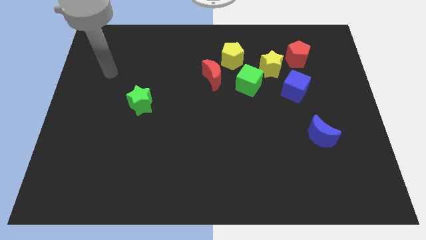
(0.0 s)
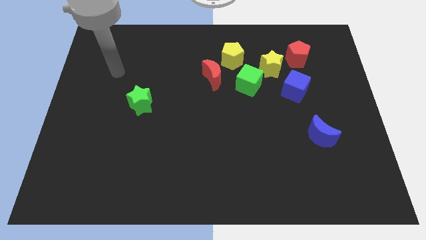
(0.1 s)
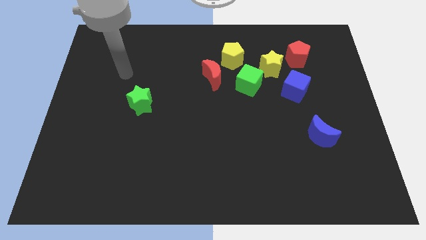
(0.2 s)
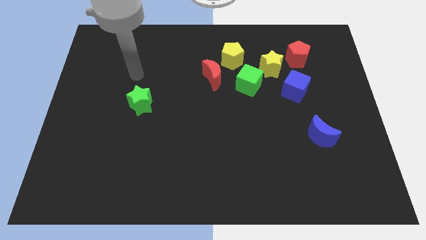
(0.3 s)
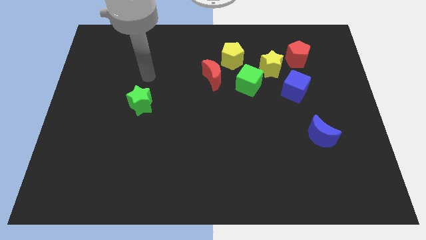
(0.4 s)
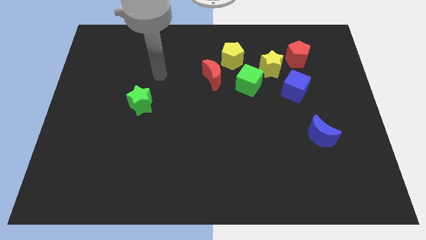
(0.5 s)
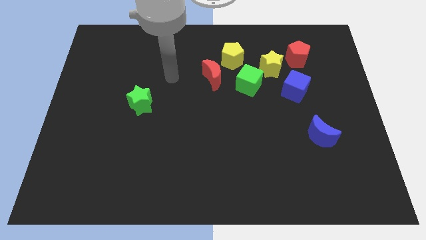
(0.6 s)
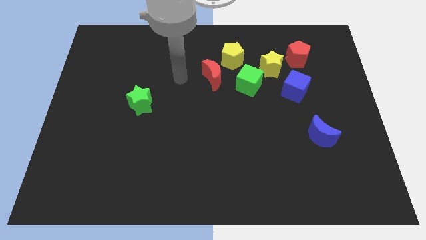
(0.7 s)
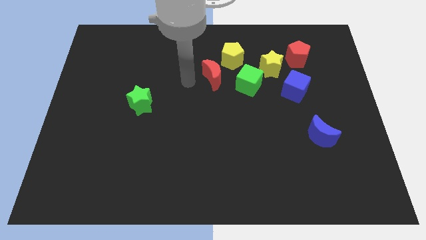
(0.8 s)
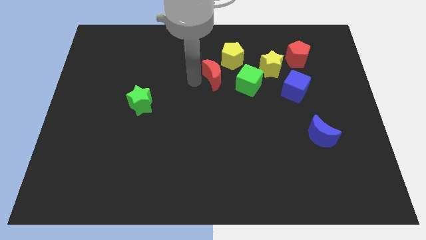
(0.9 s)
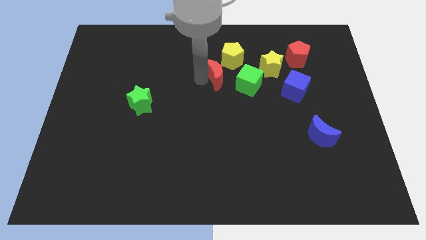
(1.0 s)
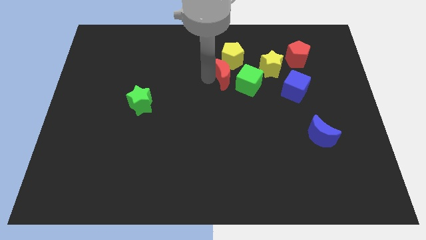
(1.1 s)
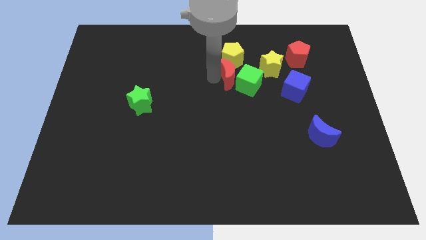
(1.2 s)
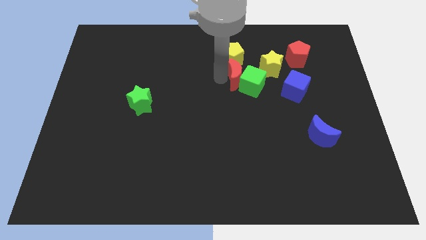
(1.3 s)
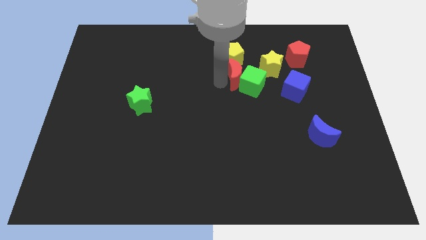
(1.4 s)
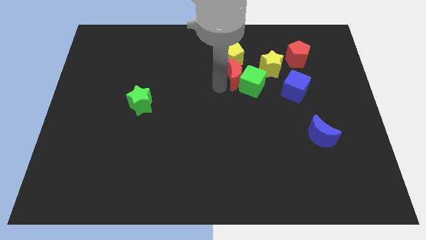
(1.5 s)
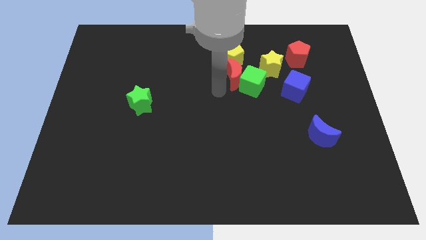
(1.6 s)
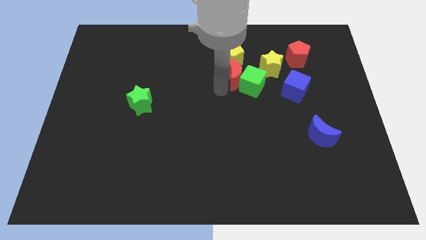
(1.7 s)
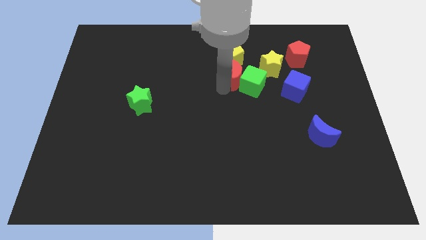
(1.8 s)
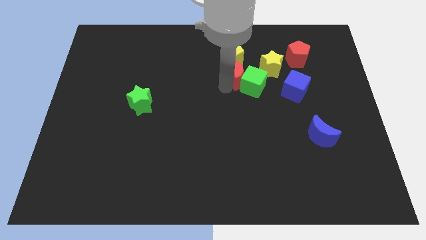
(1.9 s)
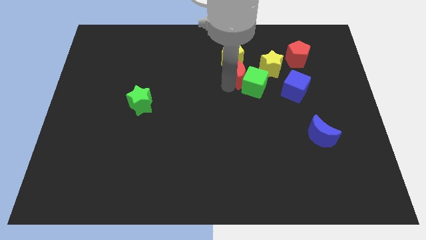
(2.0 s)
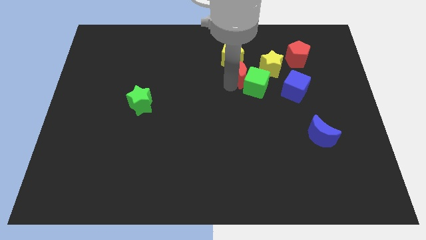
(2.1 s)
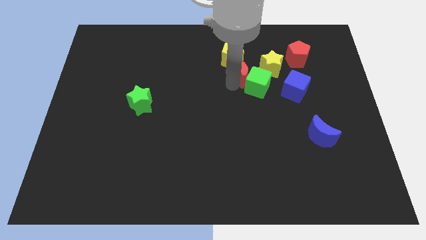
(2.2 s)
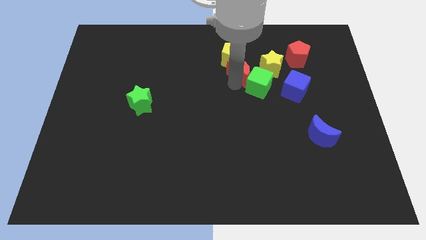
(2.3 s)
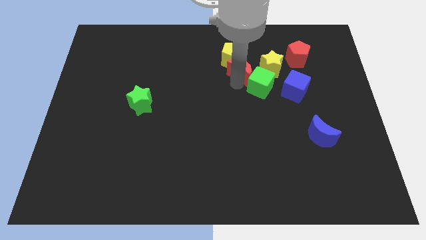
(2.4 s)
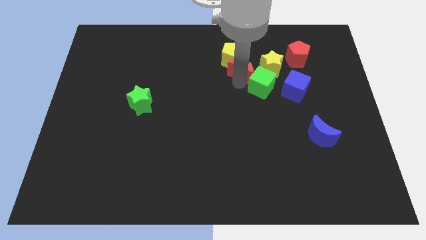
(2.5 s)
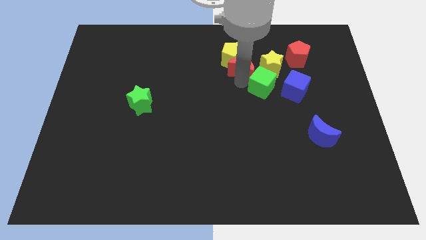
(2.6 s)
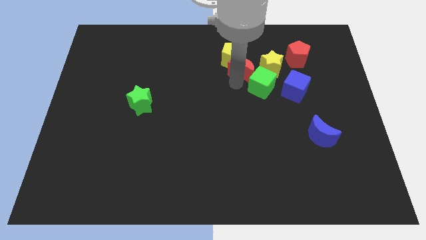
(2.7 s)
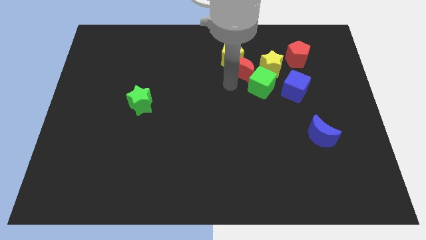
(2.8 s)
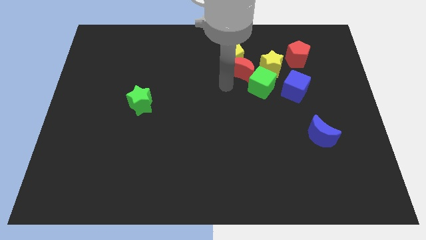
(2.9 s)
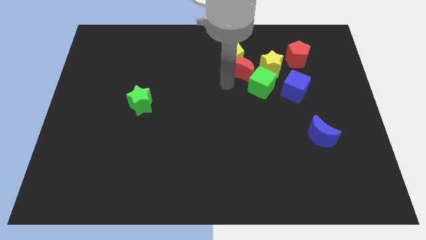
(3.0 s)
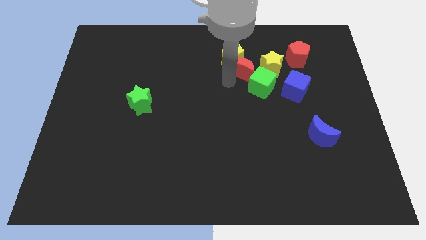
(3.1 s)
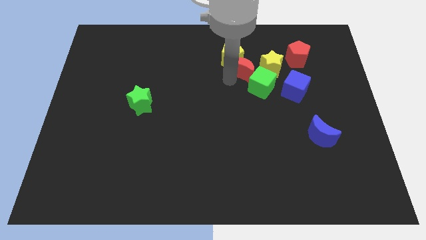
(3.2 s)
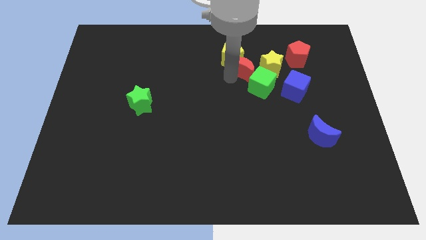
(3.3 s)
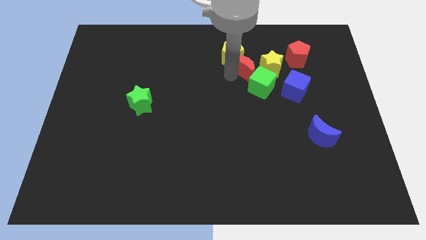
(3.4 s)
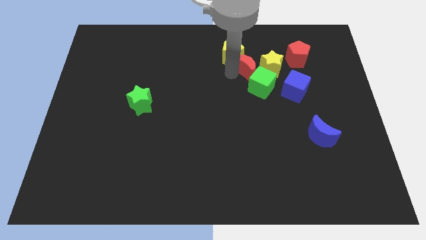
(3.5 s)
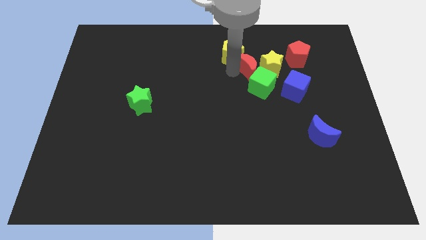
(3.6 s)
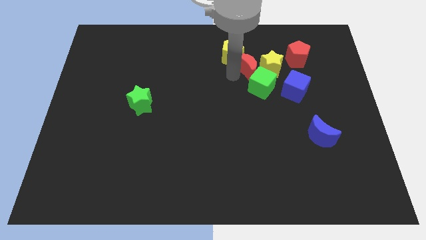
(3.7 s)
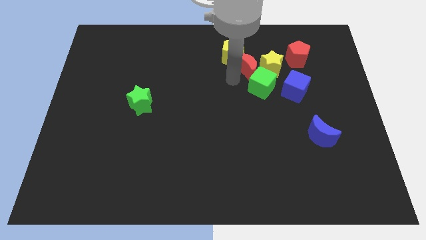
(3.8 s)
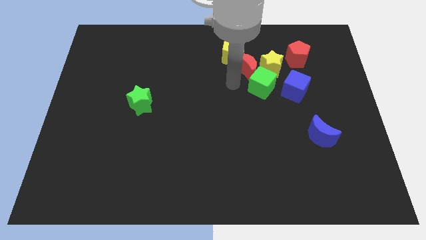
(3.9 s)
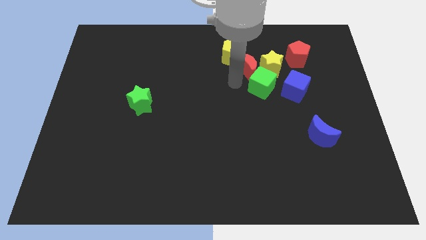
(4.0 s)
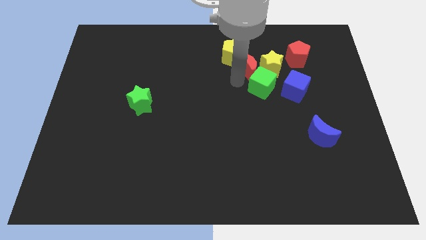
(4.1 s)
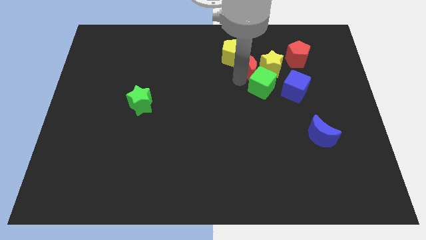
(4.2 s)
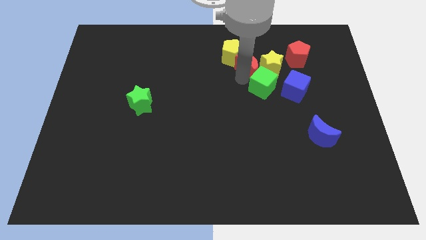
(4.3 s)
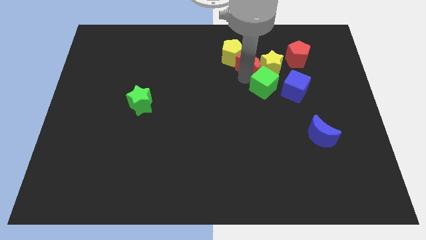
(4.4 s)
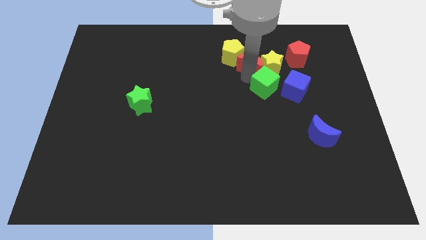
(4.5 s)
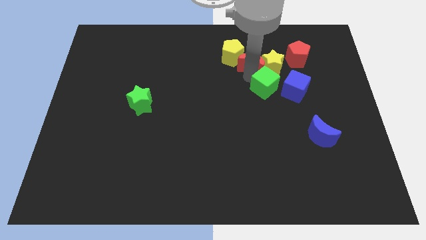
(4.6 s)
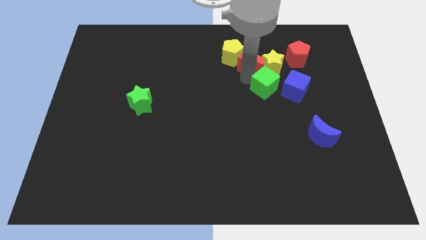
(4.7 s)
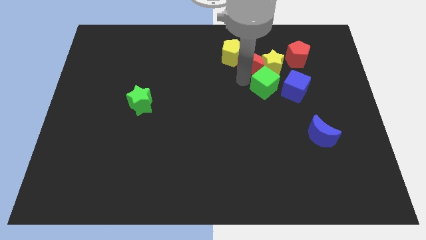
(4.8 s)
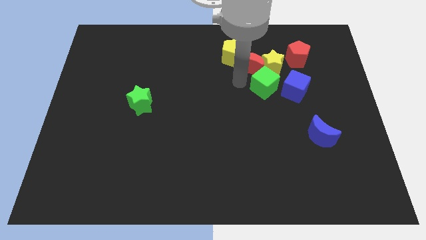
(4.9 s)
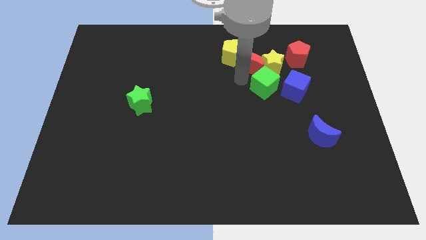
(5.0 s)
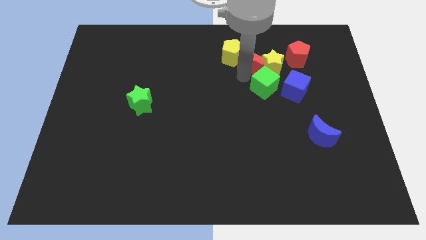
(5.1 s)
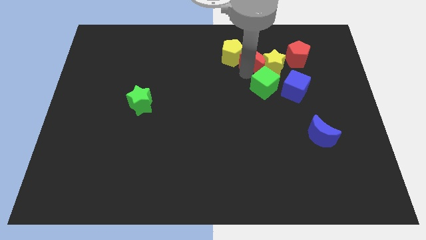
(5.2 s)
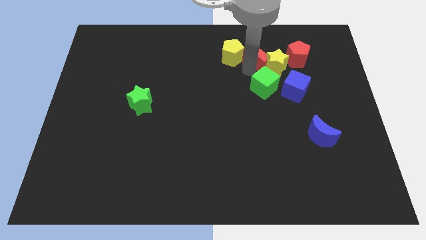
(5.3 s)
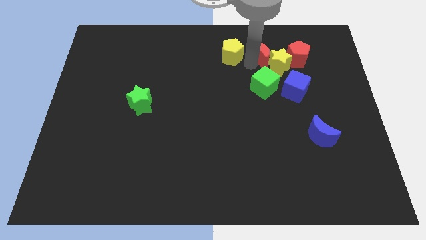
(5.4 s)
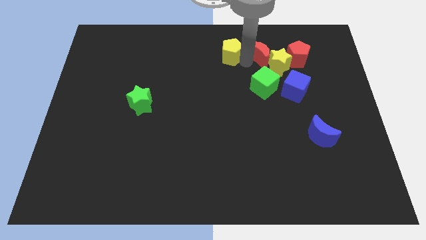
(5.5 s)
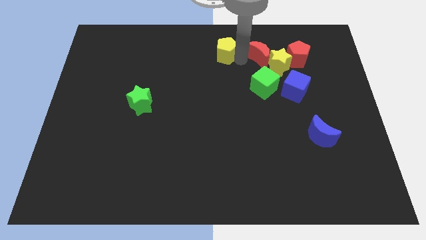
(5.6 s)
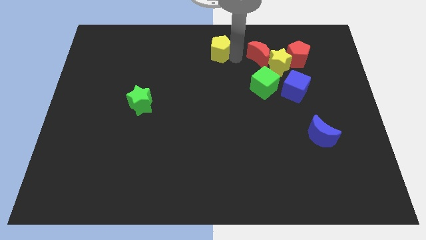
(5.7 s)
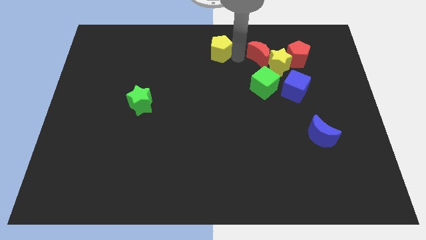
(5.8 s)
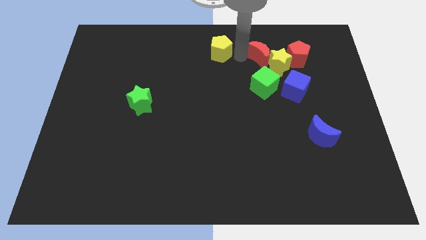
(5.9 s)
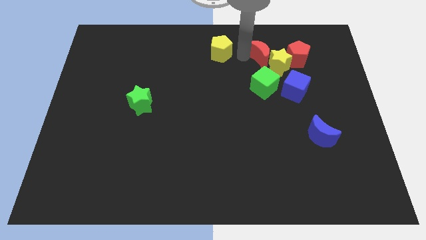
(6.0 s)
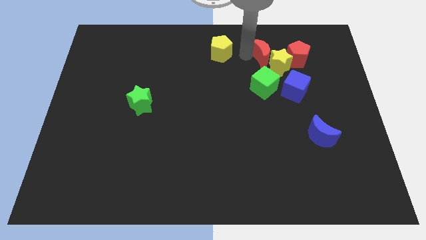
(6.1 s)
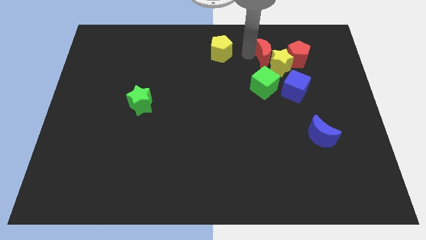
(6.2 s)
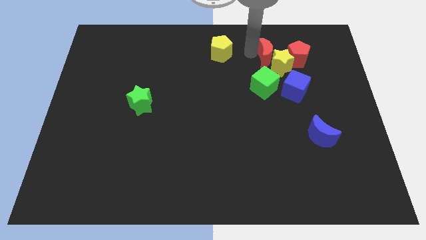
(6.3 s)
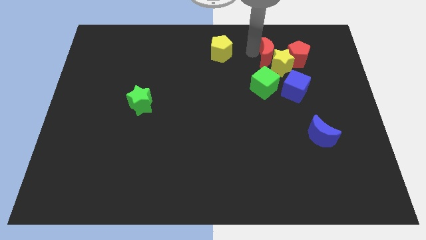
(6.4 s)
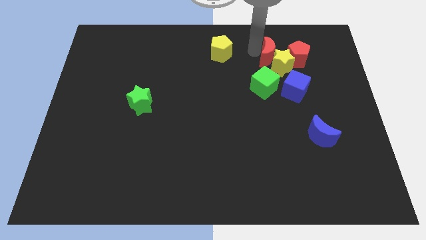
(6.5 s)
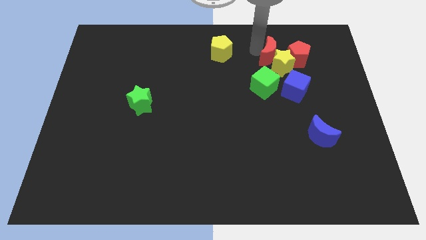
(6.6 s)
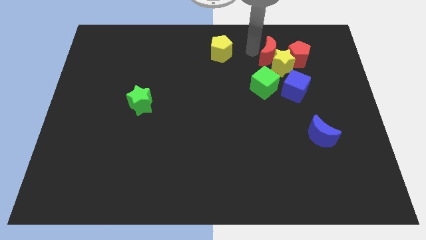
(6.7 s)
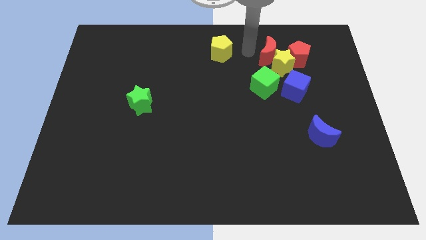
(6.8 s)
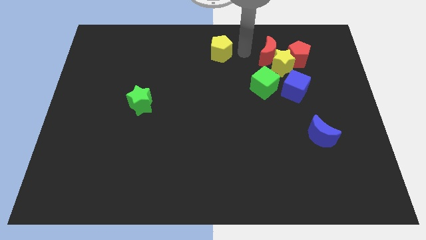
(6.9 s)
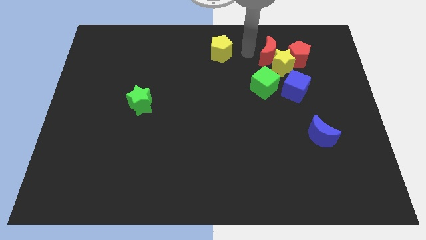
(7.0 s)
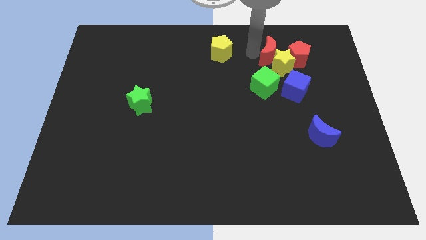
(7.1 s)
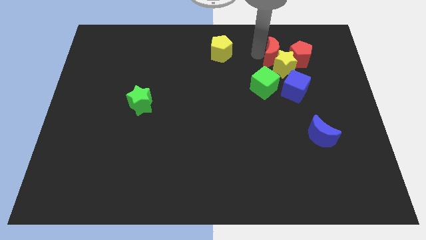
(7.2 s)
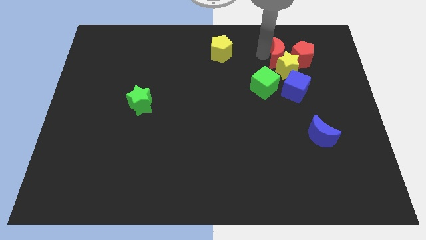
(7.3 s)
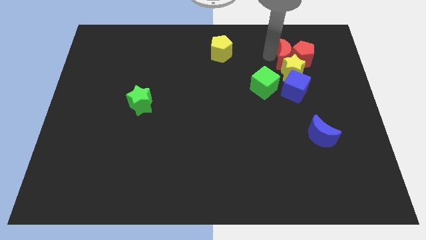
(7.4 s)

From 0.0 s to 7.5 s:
slide the red moon towards the red pentagon
